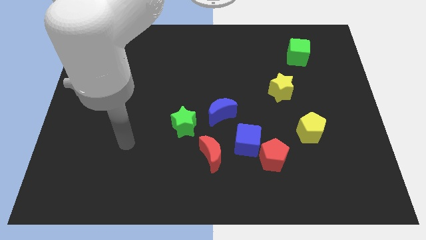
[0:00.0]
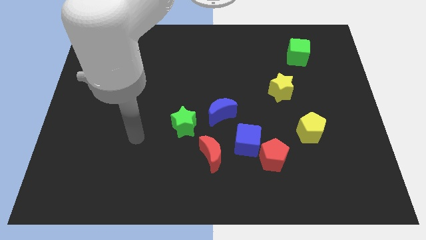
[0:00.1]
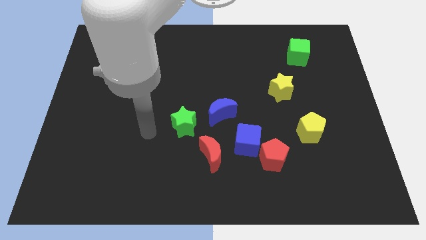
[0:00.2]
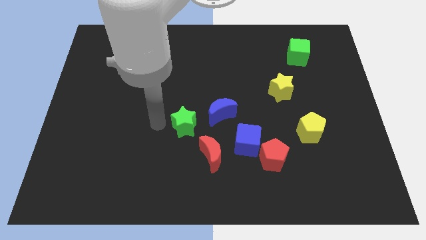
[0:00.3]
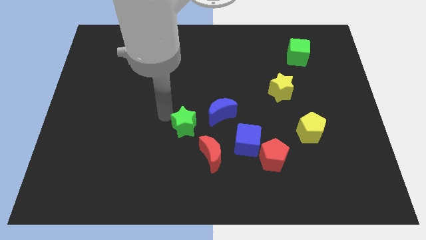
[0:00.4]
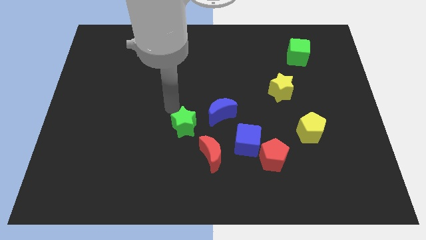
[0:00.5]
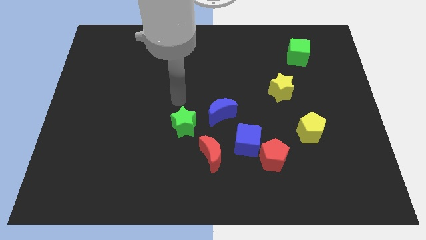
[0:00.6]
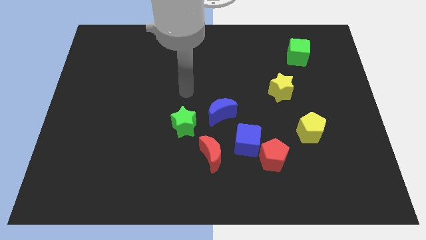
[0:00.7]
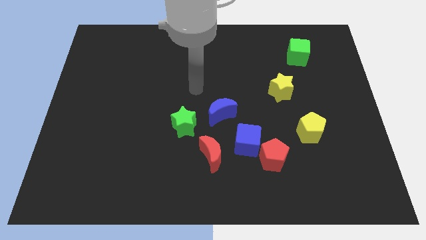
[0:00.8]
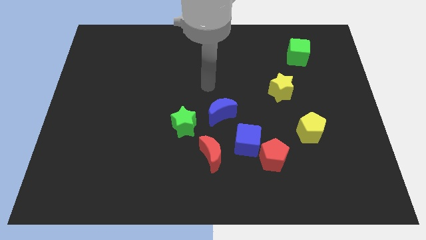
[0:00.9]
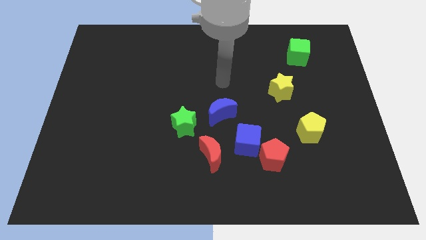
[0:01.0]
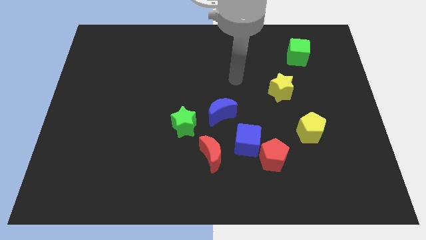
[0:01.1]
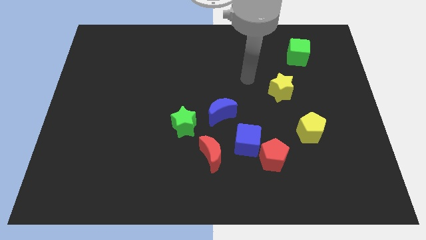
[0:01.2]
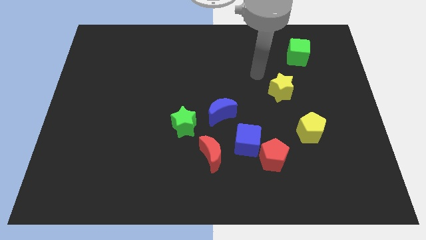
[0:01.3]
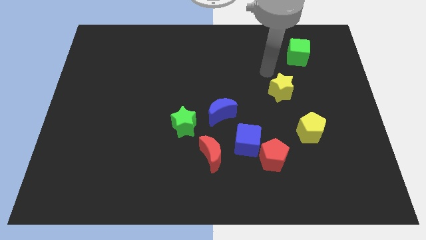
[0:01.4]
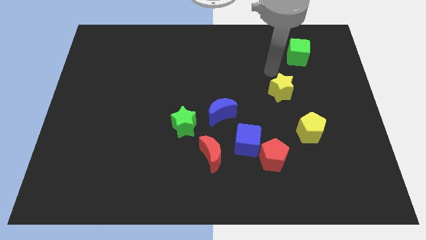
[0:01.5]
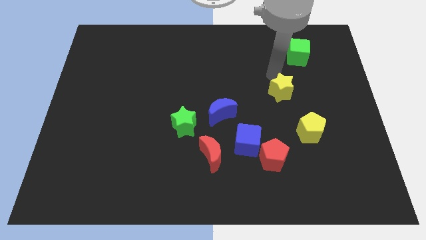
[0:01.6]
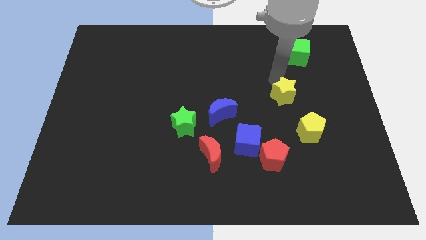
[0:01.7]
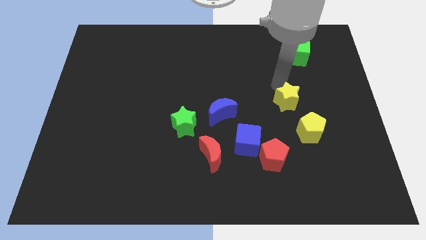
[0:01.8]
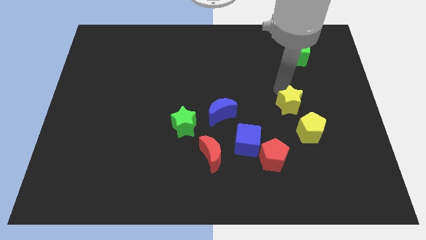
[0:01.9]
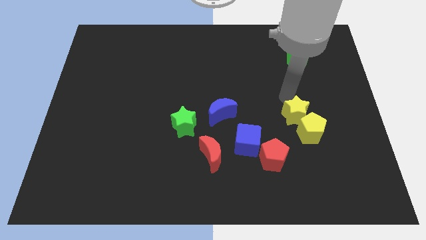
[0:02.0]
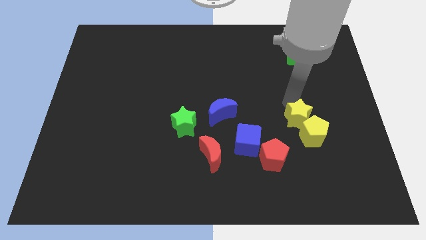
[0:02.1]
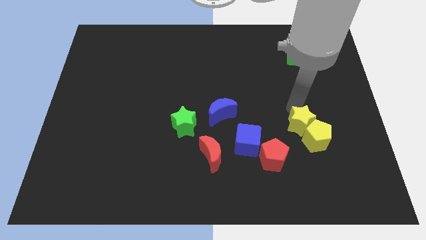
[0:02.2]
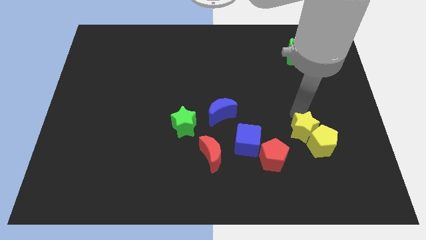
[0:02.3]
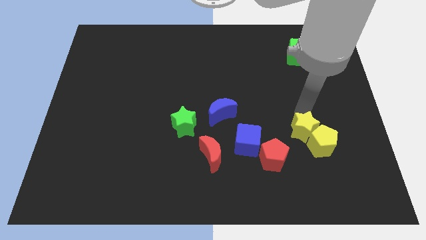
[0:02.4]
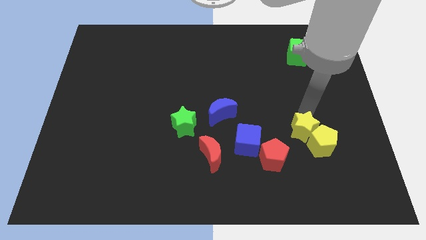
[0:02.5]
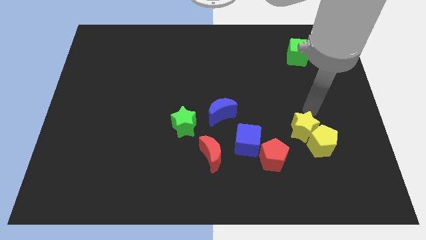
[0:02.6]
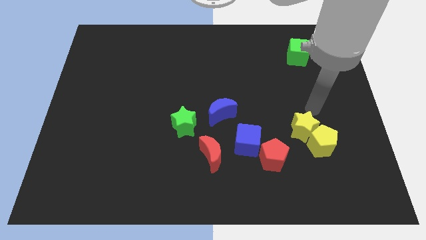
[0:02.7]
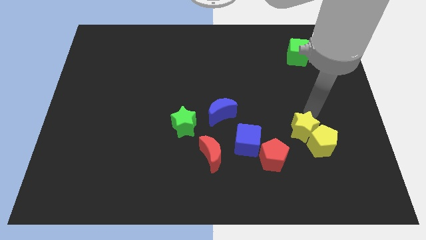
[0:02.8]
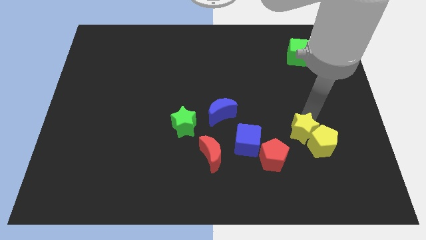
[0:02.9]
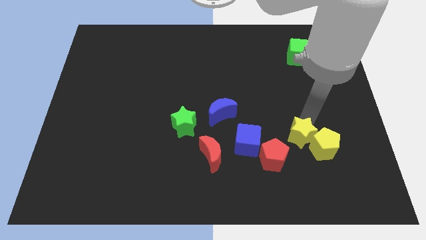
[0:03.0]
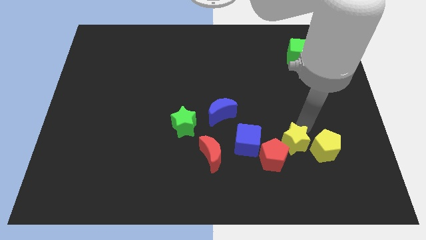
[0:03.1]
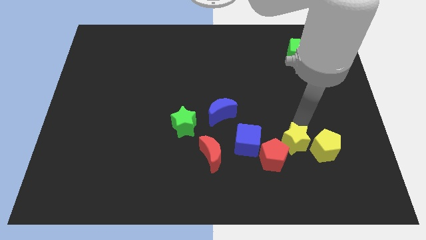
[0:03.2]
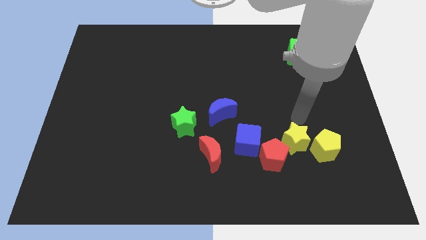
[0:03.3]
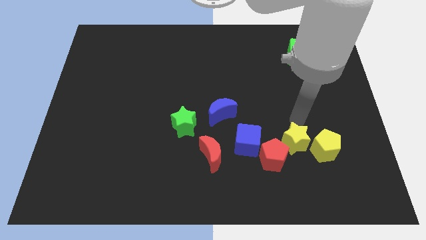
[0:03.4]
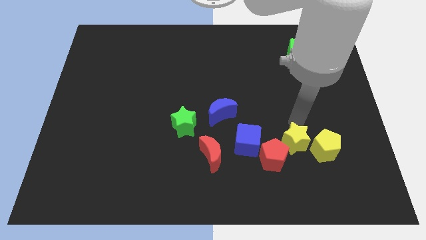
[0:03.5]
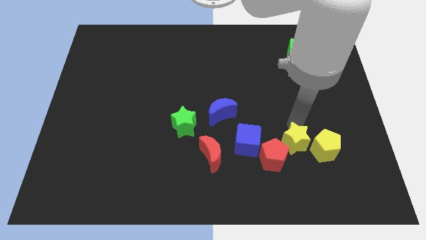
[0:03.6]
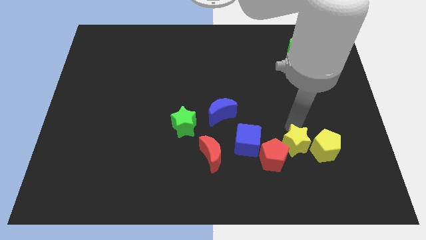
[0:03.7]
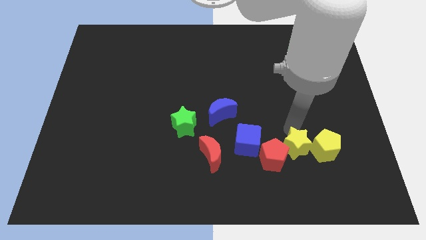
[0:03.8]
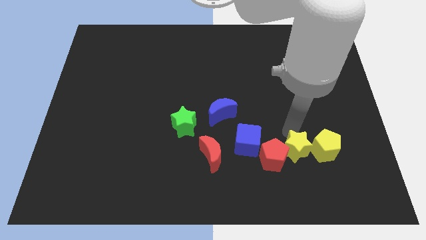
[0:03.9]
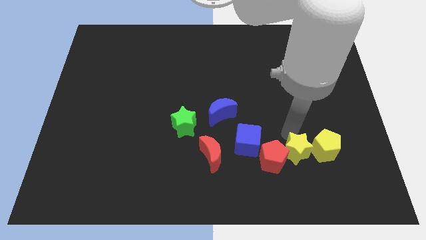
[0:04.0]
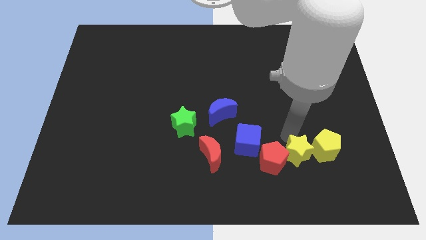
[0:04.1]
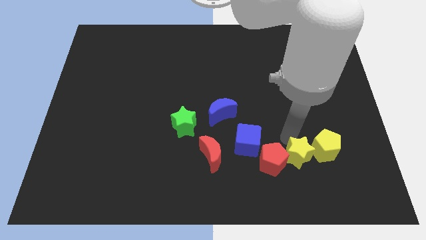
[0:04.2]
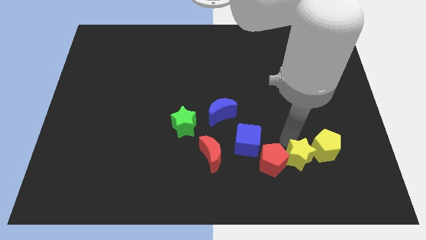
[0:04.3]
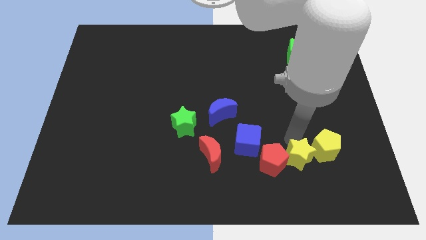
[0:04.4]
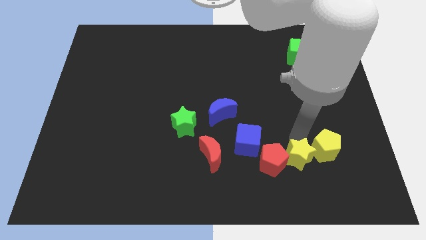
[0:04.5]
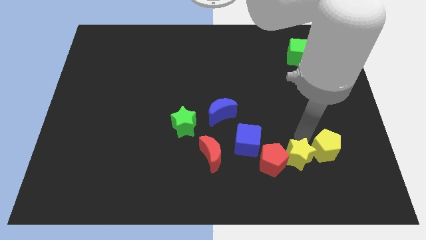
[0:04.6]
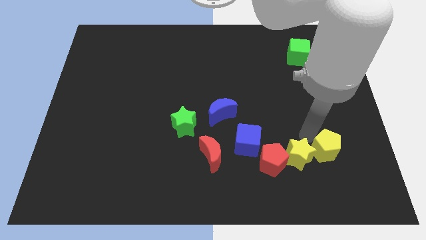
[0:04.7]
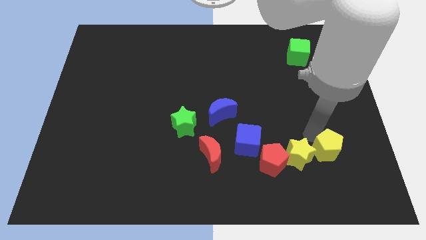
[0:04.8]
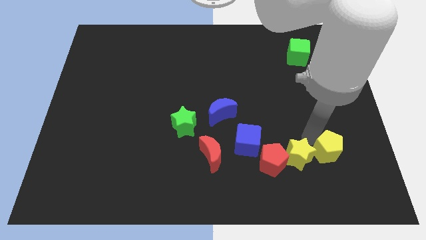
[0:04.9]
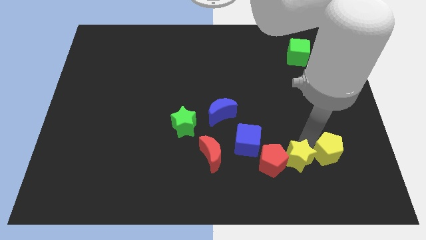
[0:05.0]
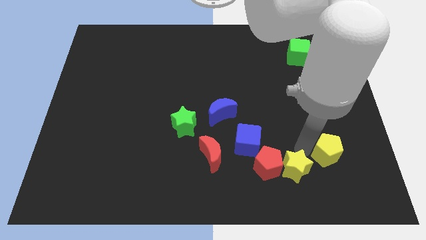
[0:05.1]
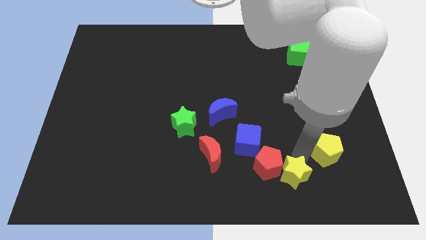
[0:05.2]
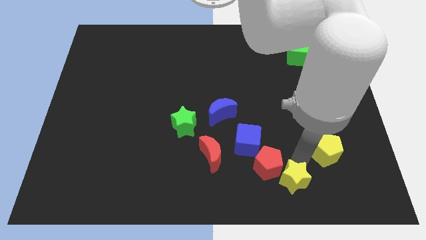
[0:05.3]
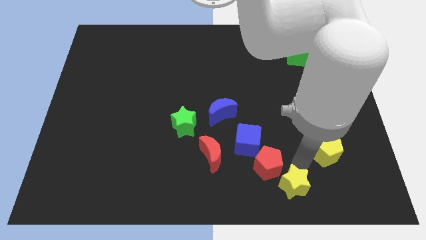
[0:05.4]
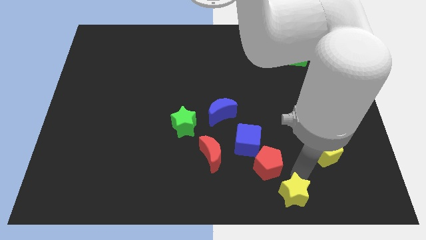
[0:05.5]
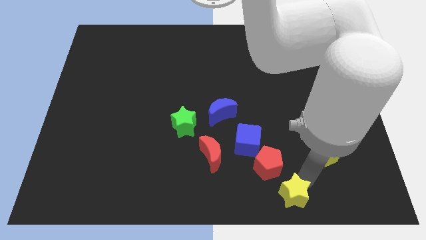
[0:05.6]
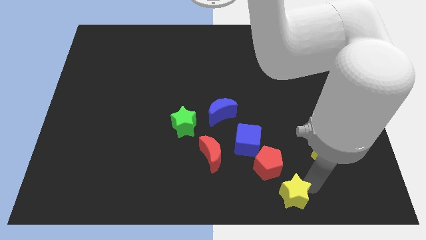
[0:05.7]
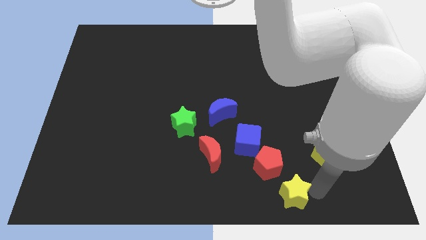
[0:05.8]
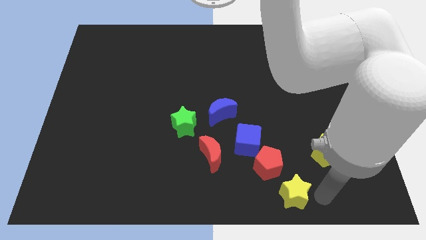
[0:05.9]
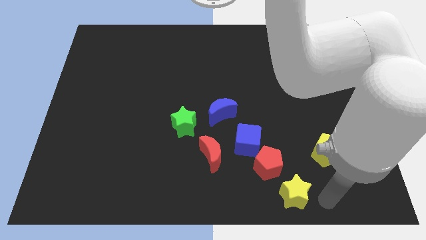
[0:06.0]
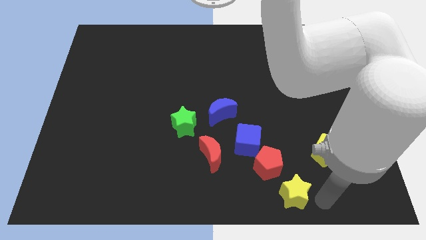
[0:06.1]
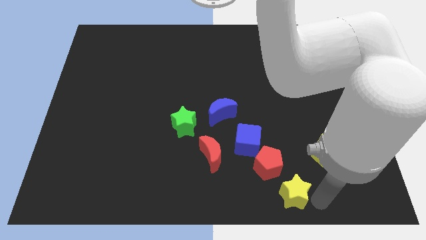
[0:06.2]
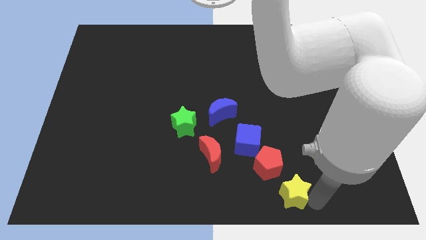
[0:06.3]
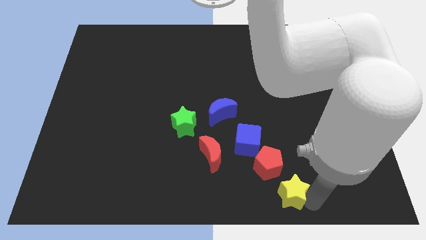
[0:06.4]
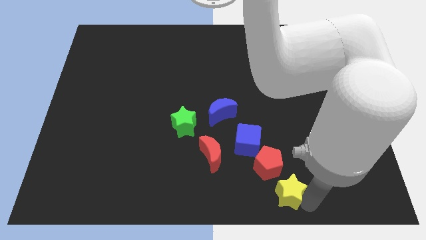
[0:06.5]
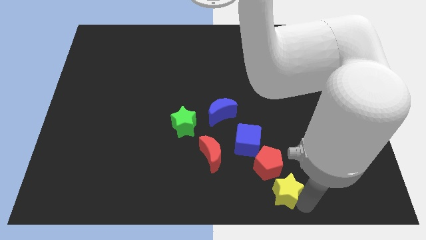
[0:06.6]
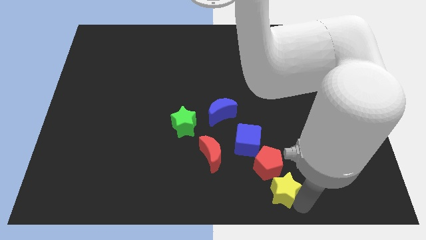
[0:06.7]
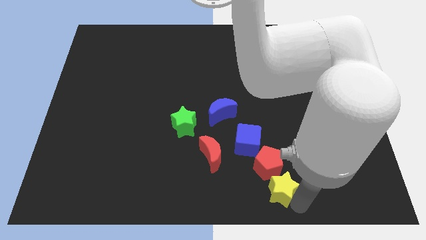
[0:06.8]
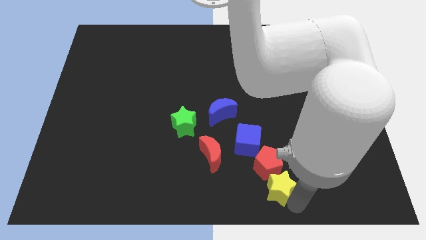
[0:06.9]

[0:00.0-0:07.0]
put the yellow star to the bottom side

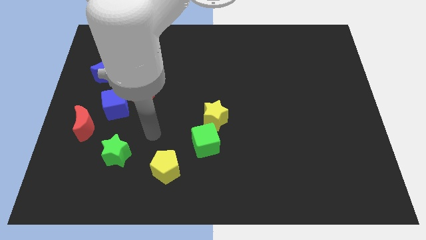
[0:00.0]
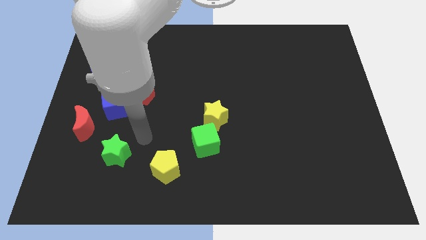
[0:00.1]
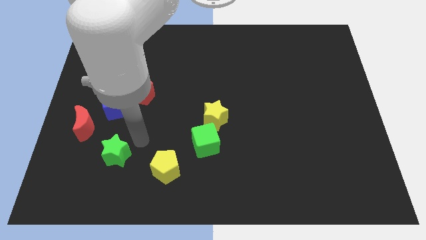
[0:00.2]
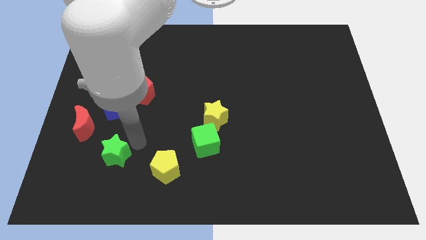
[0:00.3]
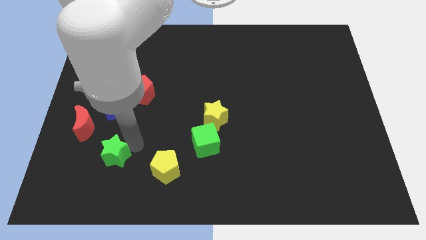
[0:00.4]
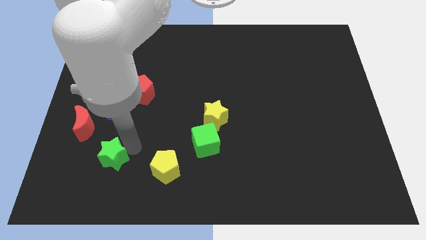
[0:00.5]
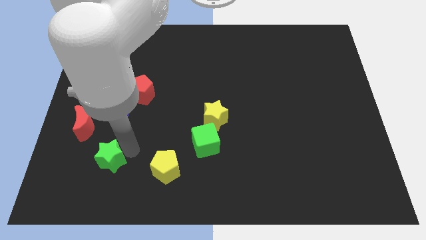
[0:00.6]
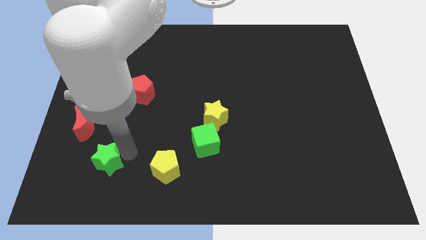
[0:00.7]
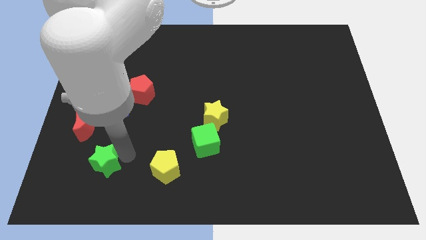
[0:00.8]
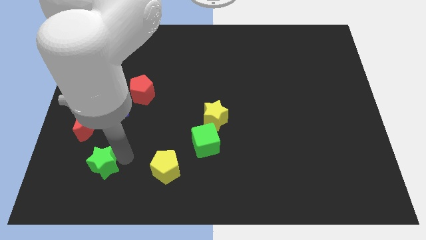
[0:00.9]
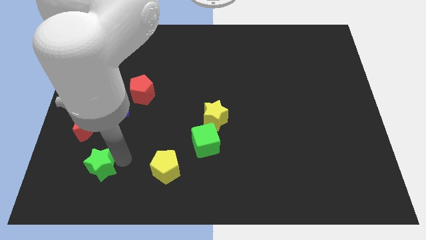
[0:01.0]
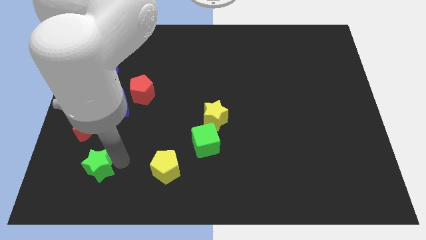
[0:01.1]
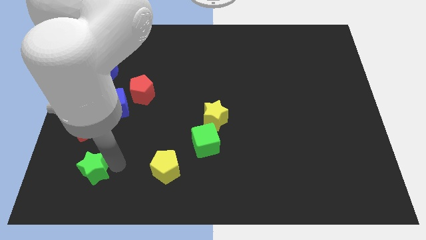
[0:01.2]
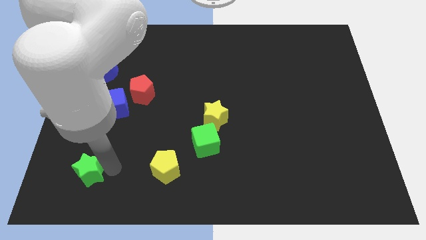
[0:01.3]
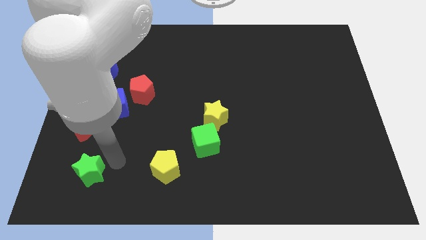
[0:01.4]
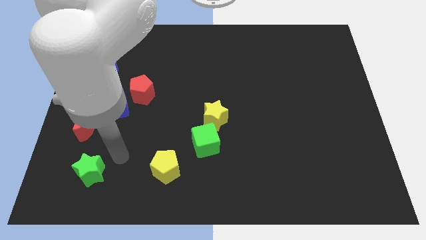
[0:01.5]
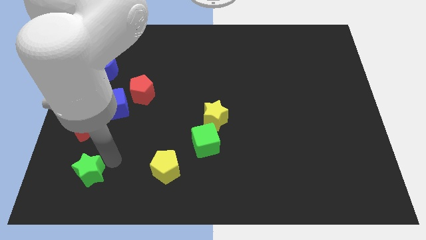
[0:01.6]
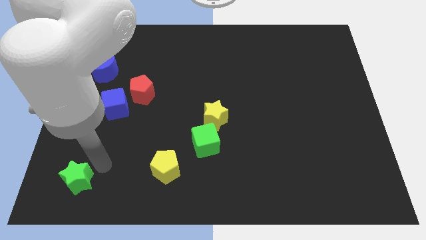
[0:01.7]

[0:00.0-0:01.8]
push the green star to the bottom left corner
